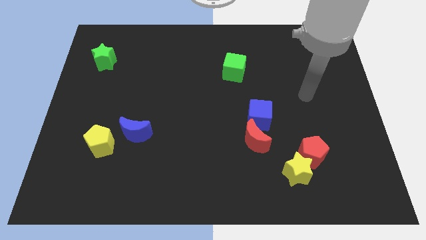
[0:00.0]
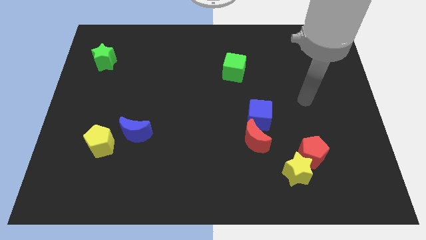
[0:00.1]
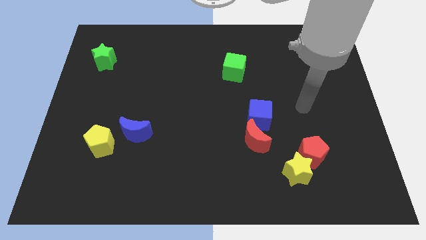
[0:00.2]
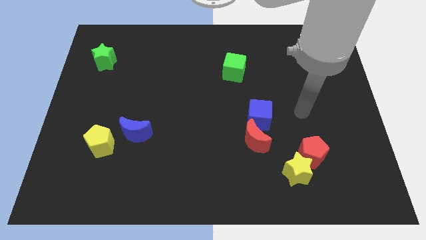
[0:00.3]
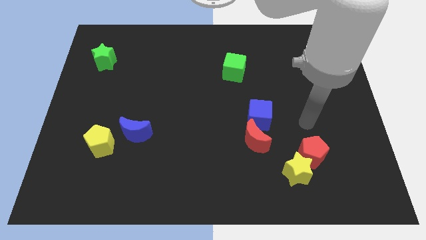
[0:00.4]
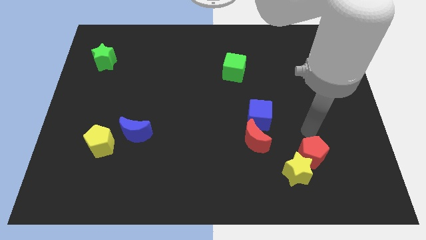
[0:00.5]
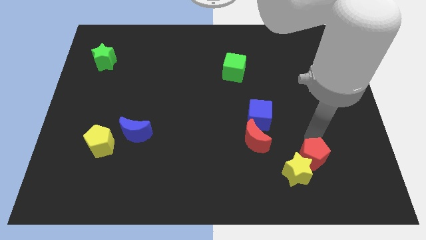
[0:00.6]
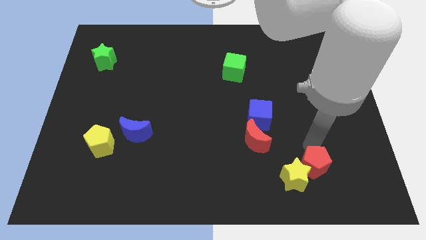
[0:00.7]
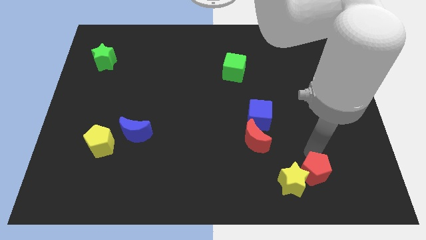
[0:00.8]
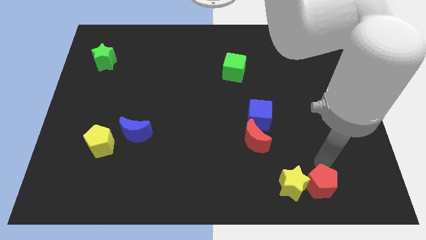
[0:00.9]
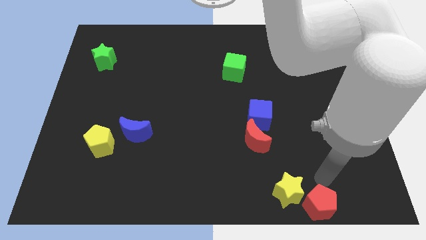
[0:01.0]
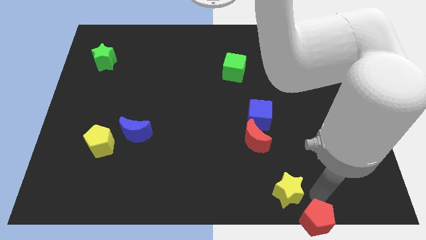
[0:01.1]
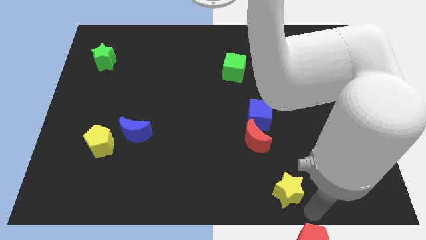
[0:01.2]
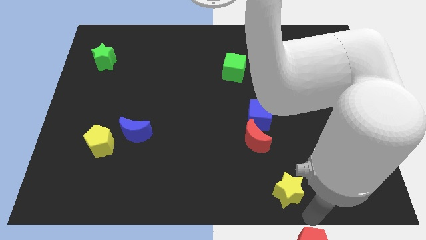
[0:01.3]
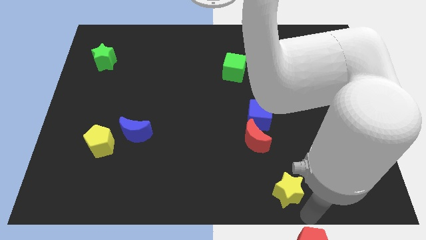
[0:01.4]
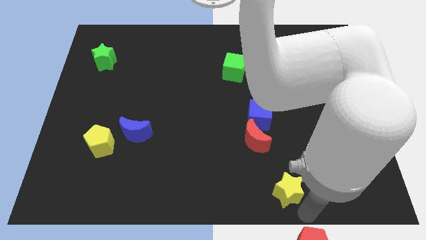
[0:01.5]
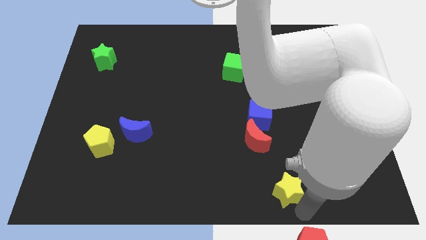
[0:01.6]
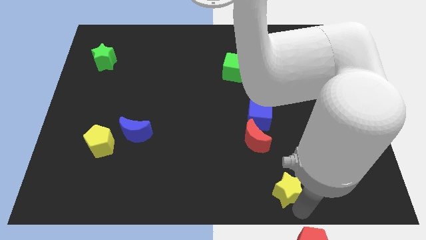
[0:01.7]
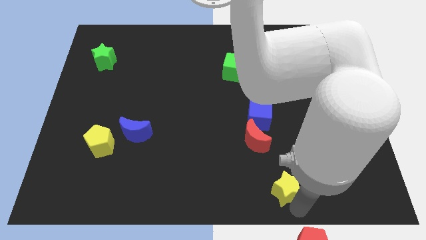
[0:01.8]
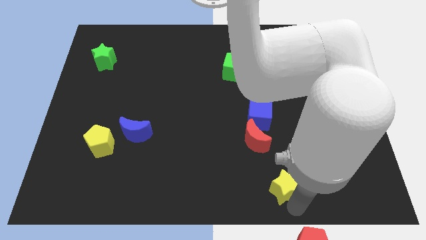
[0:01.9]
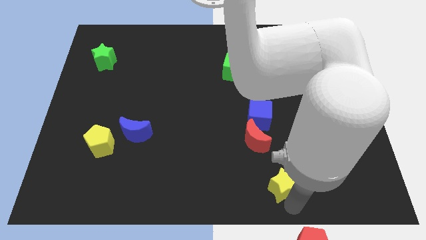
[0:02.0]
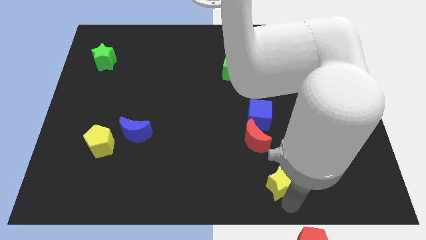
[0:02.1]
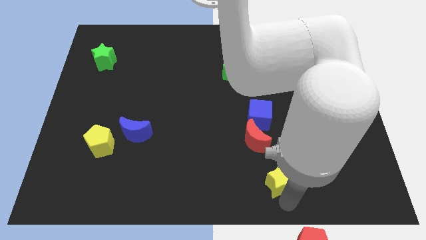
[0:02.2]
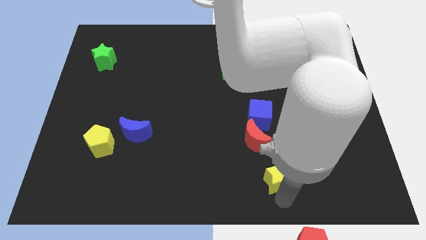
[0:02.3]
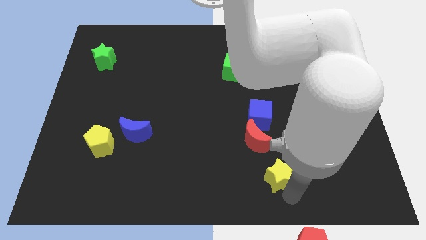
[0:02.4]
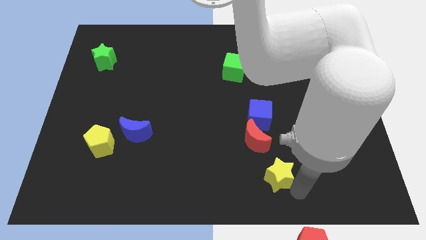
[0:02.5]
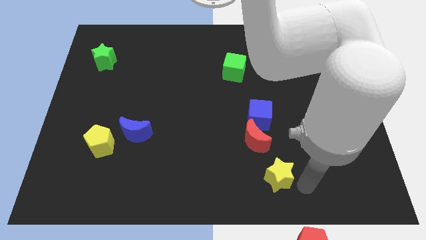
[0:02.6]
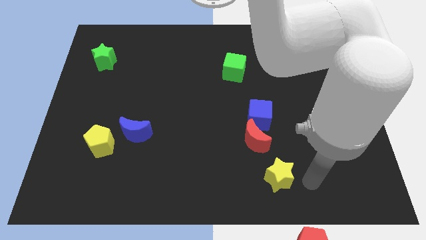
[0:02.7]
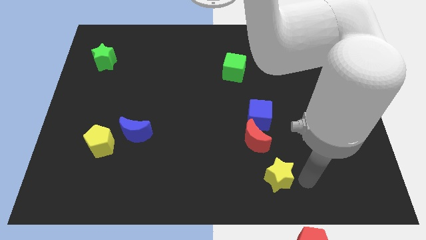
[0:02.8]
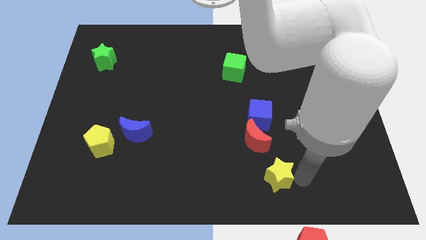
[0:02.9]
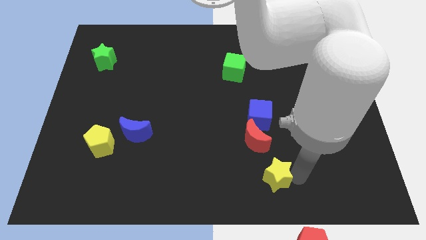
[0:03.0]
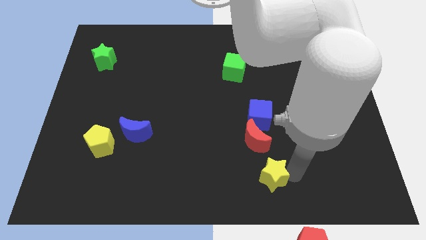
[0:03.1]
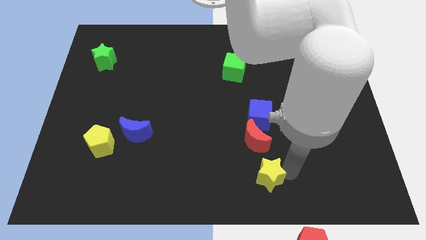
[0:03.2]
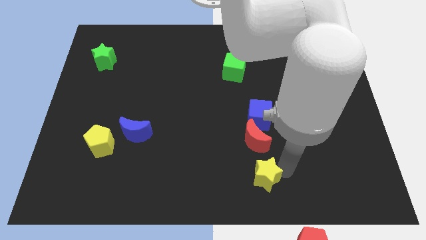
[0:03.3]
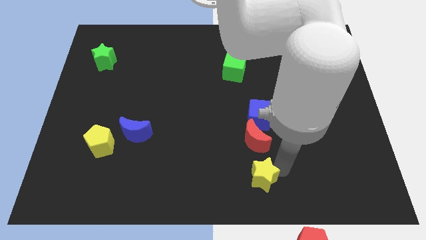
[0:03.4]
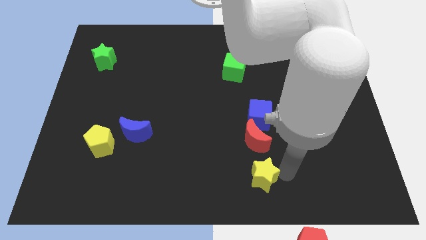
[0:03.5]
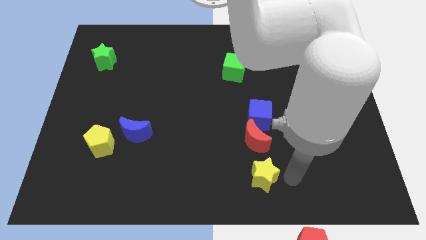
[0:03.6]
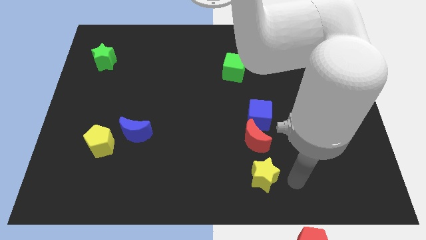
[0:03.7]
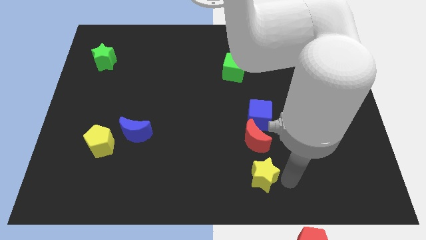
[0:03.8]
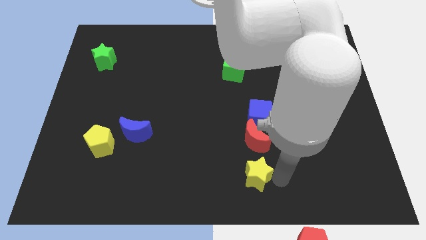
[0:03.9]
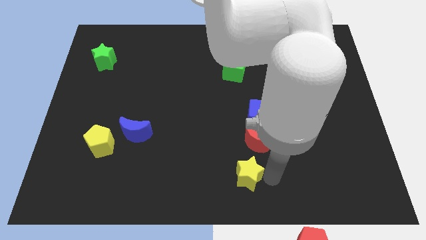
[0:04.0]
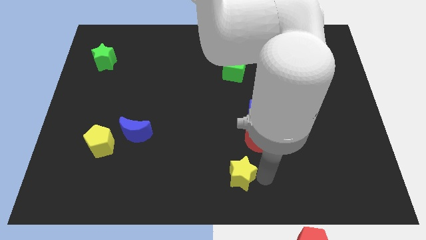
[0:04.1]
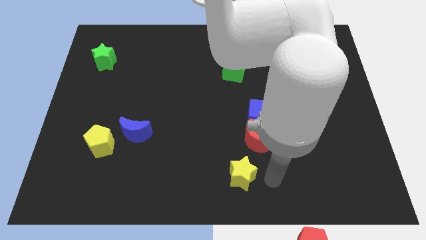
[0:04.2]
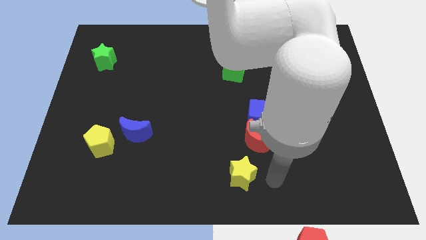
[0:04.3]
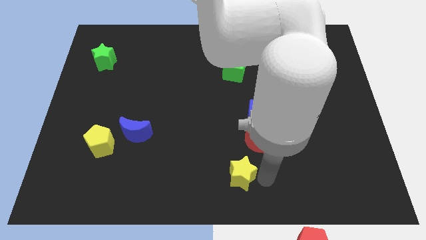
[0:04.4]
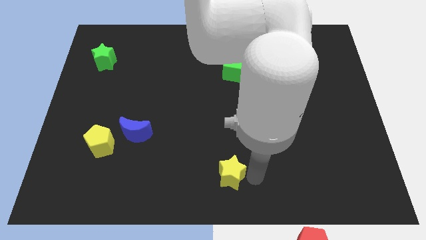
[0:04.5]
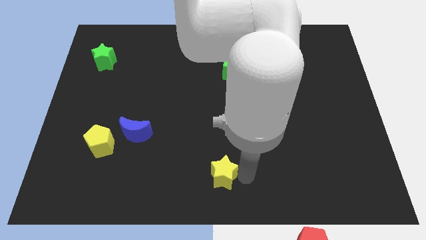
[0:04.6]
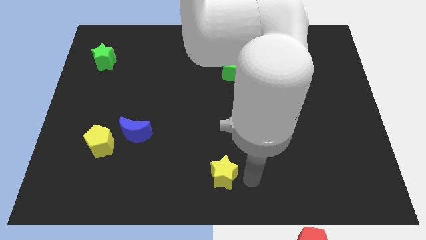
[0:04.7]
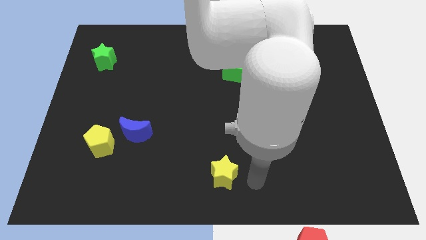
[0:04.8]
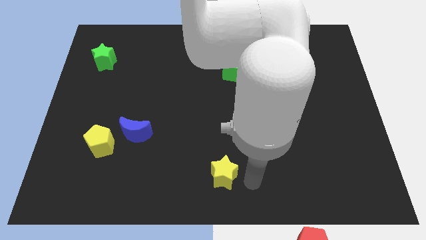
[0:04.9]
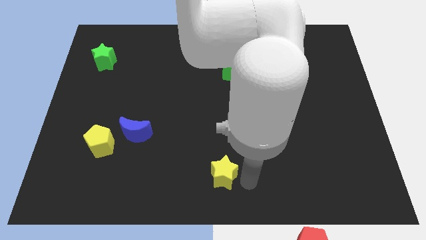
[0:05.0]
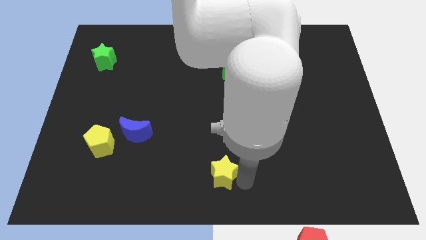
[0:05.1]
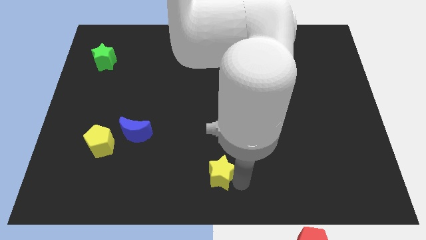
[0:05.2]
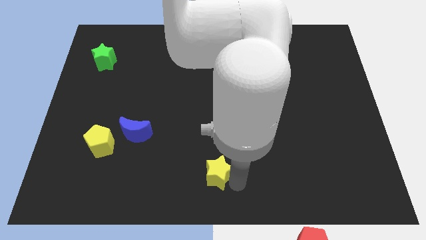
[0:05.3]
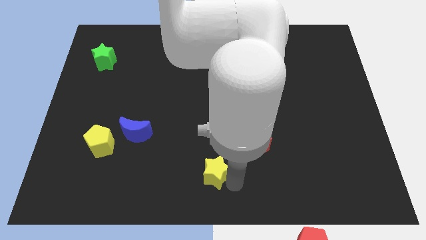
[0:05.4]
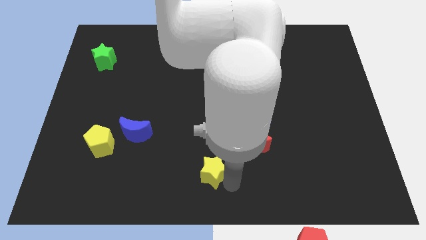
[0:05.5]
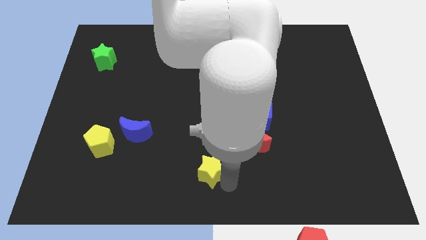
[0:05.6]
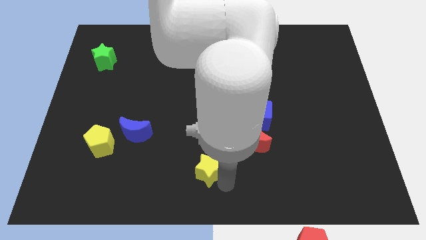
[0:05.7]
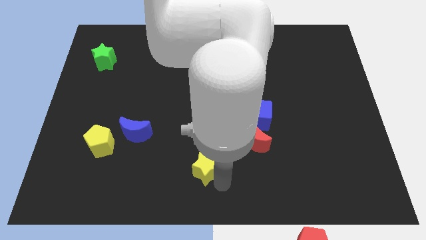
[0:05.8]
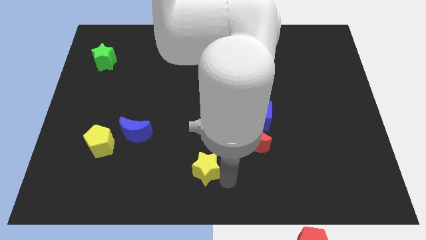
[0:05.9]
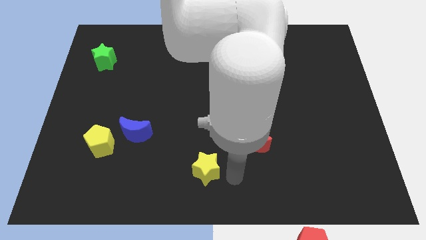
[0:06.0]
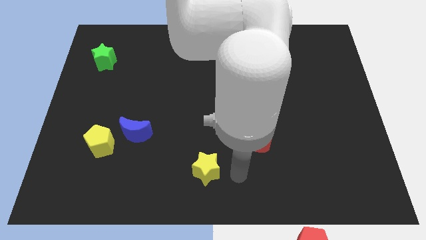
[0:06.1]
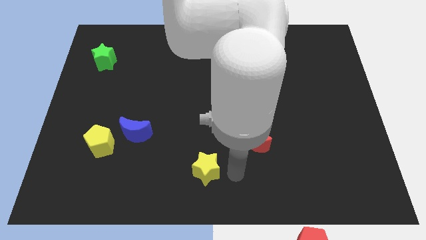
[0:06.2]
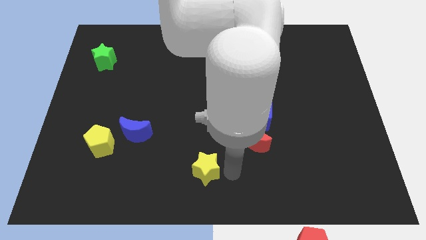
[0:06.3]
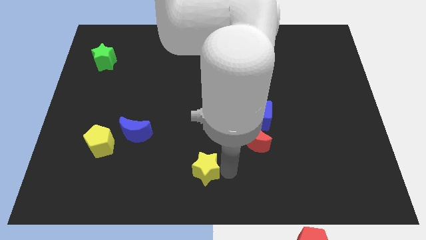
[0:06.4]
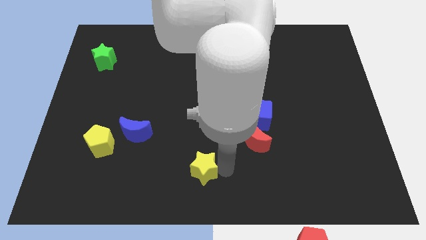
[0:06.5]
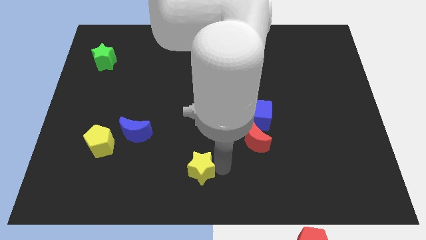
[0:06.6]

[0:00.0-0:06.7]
push the yellow star to the left

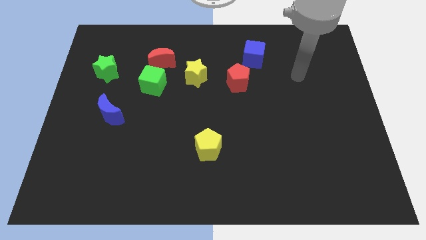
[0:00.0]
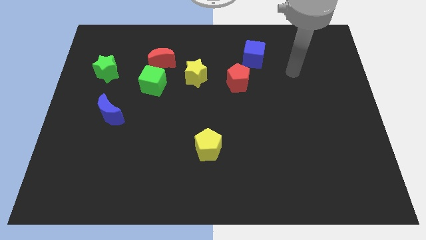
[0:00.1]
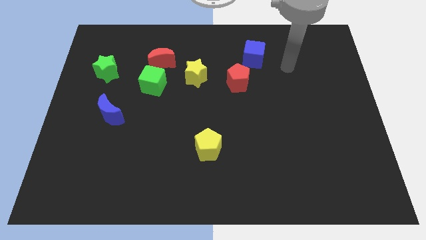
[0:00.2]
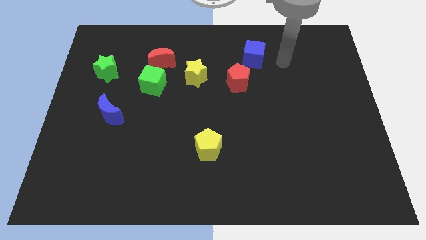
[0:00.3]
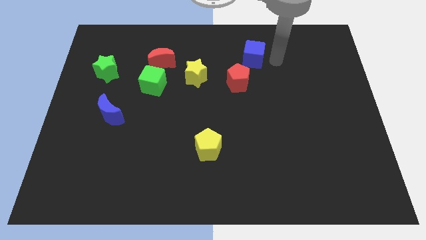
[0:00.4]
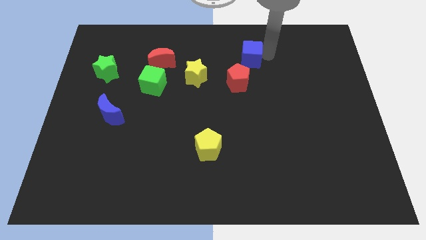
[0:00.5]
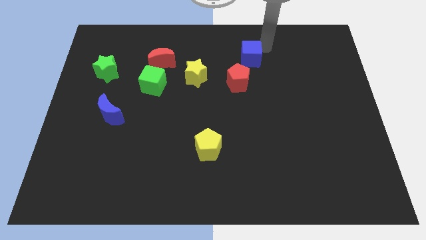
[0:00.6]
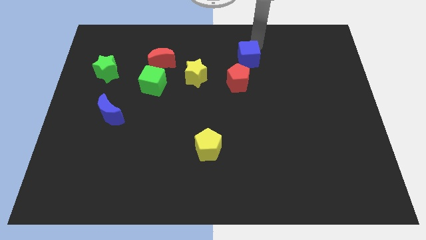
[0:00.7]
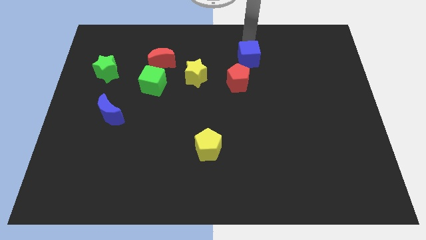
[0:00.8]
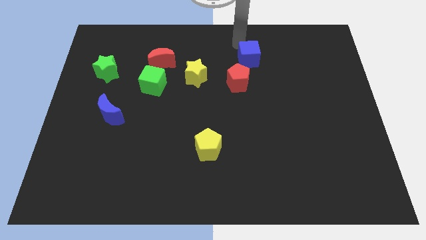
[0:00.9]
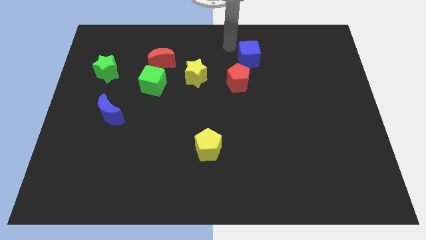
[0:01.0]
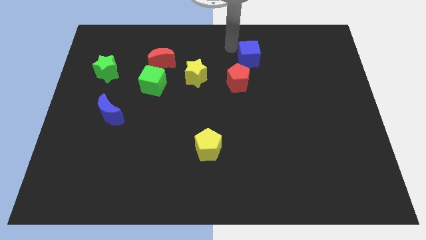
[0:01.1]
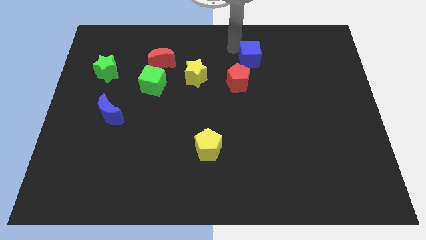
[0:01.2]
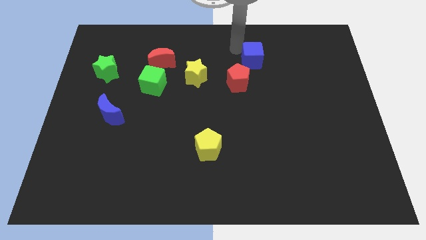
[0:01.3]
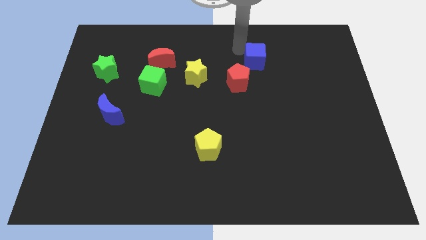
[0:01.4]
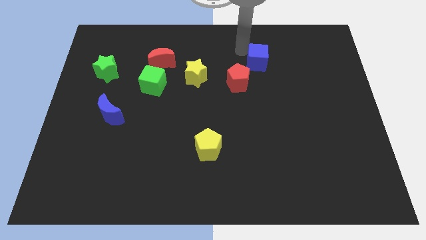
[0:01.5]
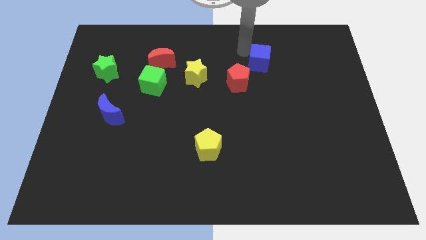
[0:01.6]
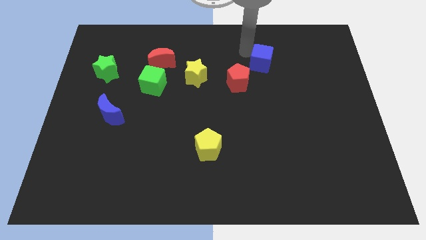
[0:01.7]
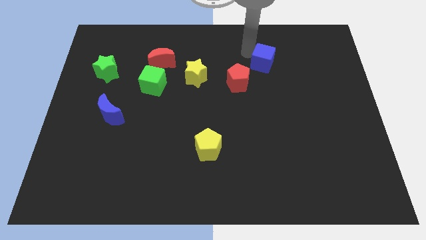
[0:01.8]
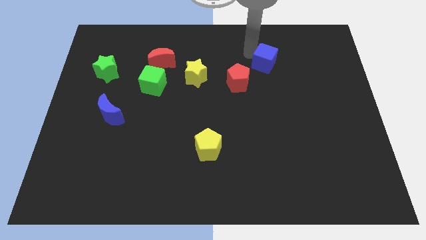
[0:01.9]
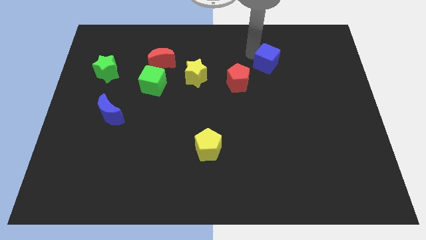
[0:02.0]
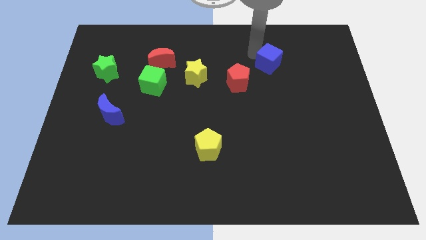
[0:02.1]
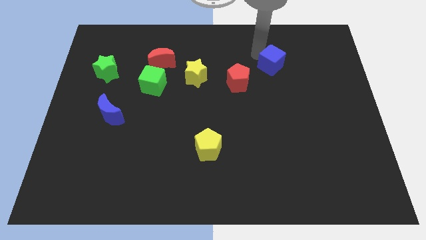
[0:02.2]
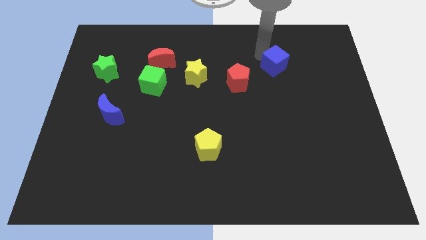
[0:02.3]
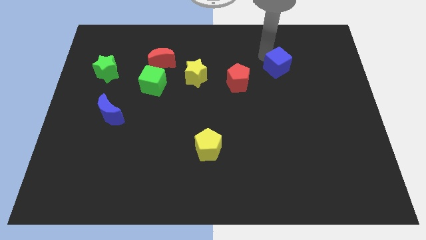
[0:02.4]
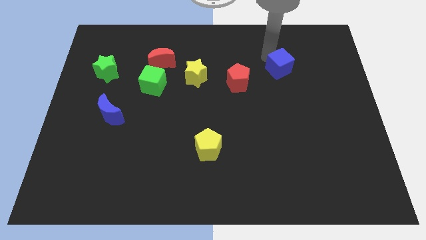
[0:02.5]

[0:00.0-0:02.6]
slide the blue cube a bit down and right diagonally
